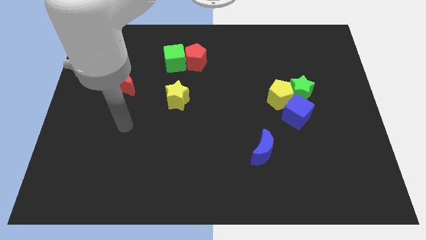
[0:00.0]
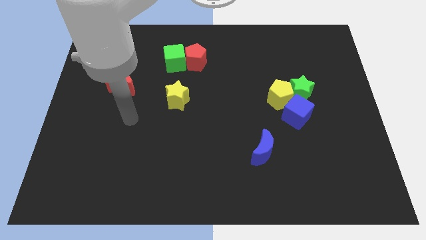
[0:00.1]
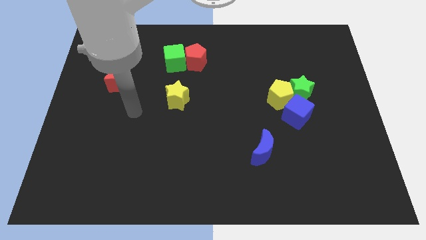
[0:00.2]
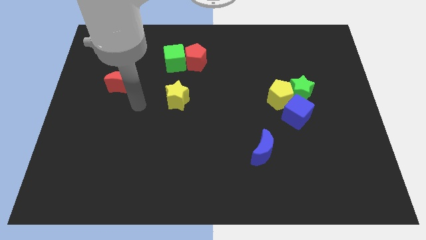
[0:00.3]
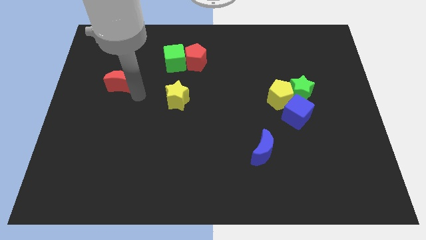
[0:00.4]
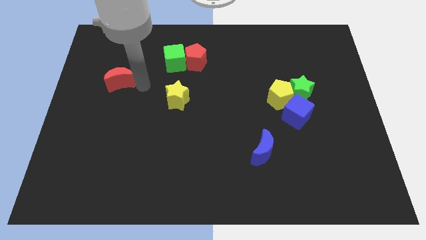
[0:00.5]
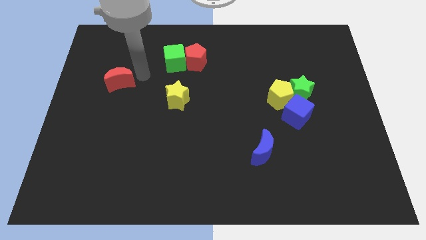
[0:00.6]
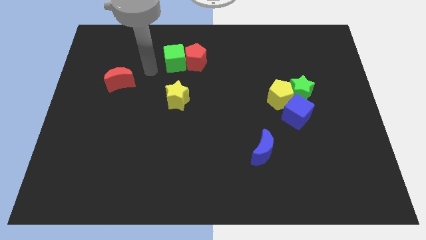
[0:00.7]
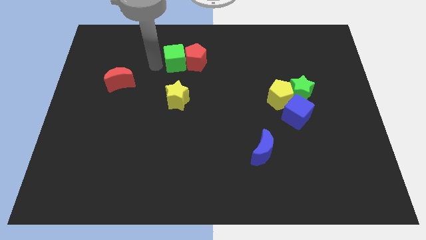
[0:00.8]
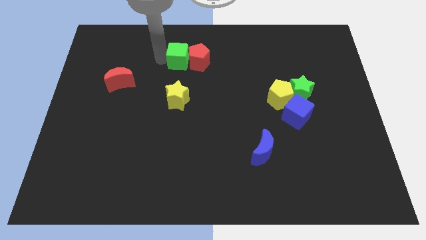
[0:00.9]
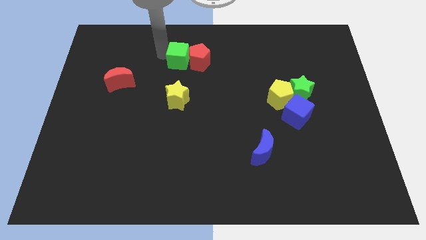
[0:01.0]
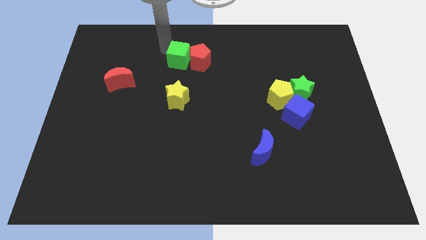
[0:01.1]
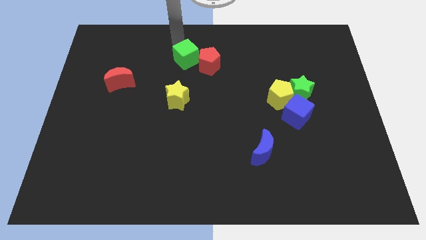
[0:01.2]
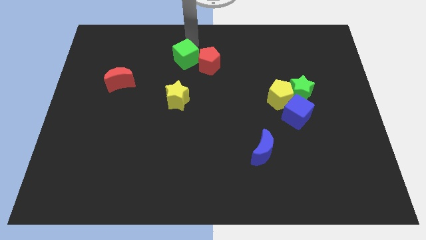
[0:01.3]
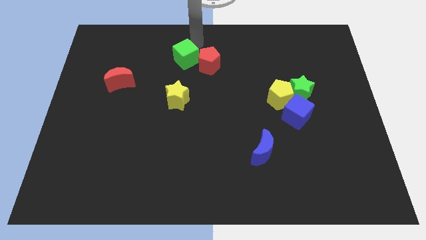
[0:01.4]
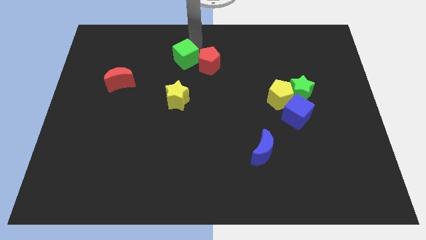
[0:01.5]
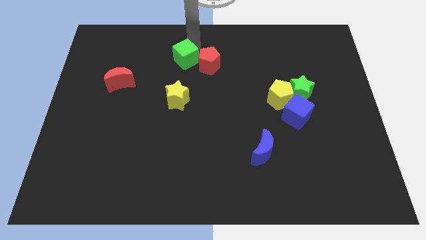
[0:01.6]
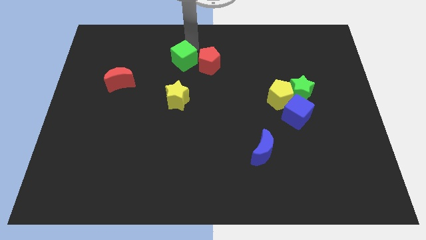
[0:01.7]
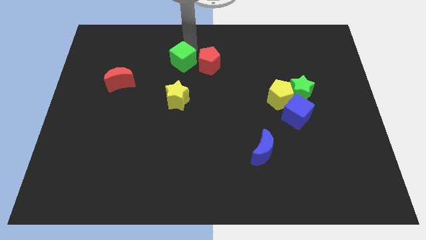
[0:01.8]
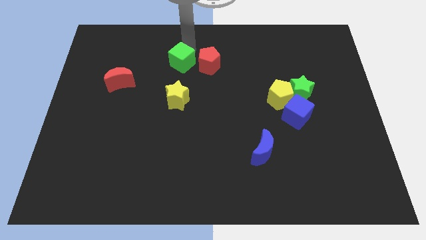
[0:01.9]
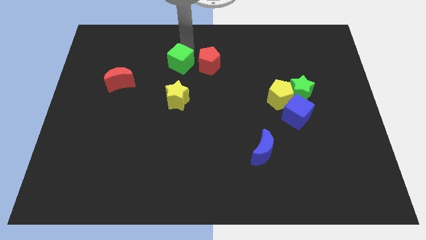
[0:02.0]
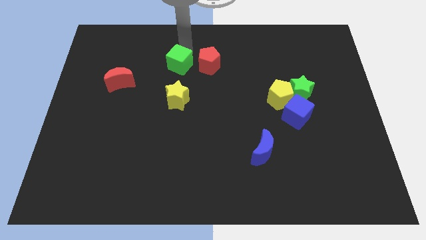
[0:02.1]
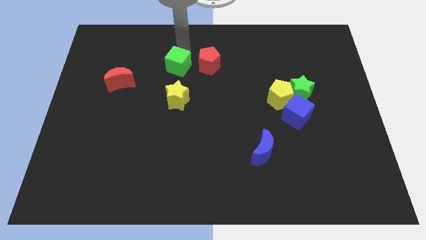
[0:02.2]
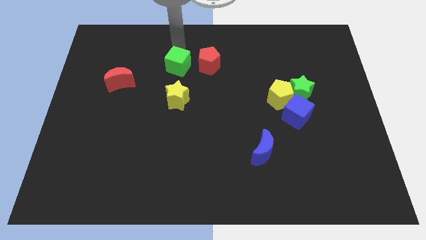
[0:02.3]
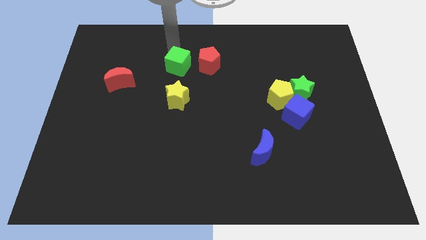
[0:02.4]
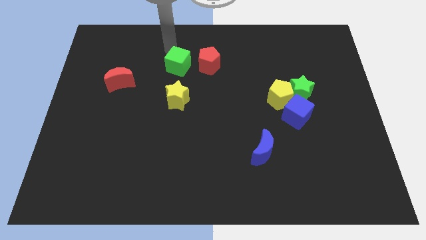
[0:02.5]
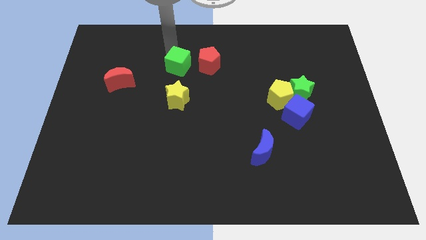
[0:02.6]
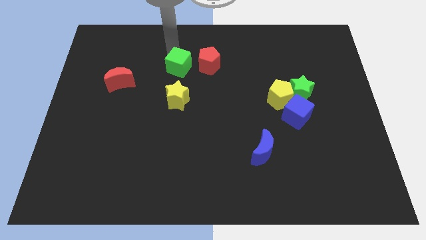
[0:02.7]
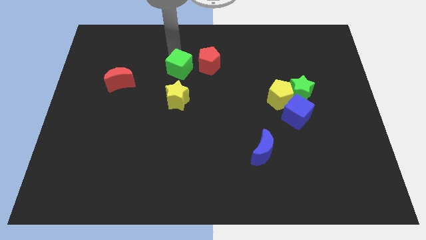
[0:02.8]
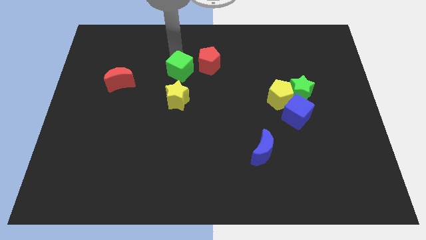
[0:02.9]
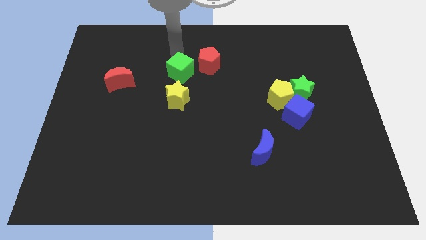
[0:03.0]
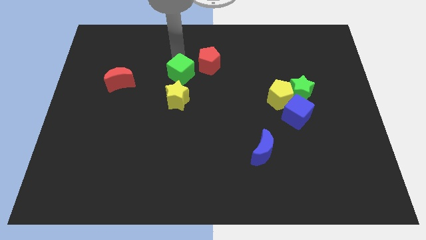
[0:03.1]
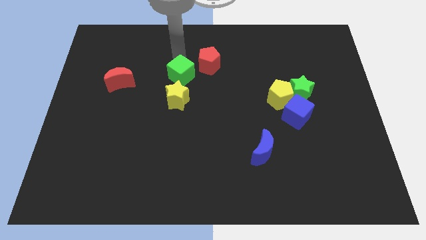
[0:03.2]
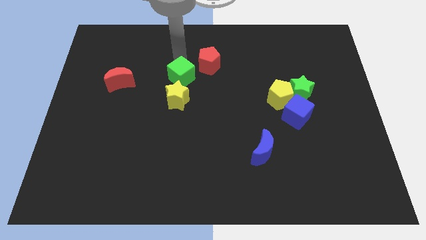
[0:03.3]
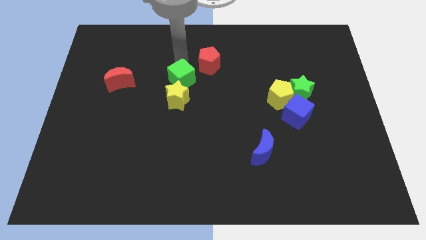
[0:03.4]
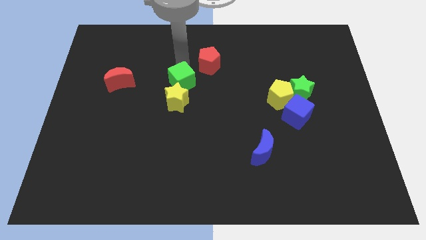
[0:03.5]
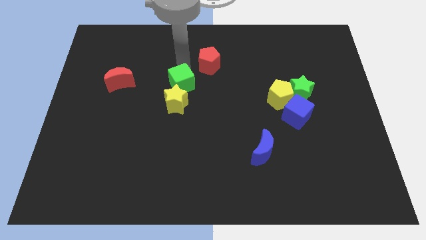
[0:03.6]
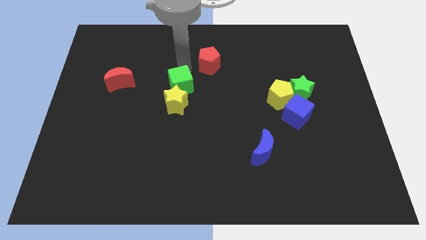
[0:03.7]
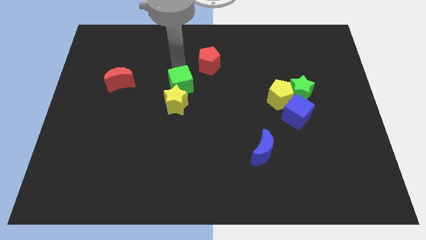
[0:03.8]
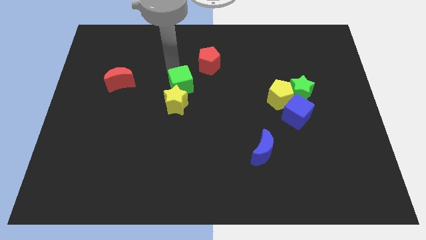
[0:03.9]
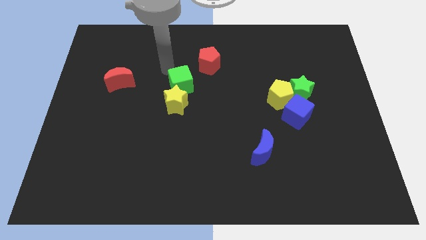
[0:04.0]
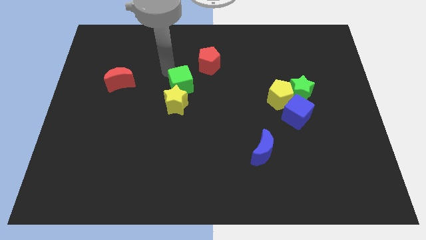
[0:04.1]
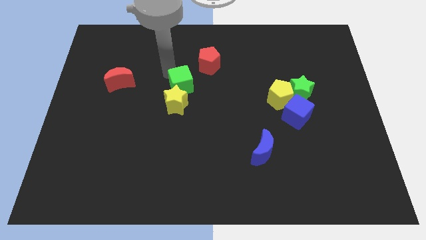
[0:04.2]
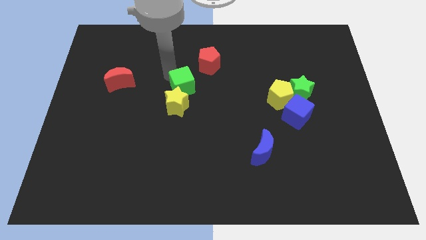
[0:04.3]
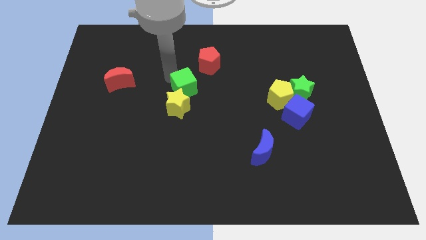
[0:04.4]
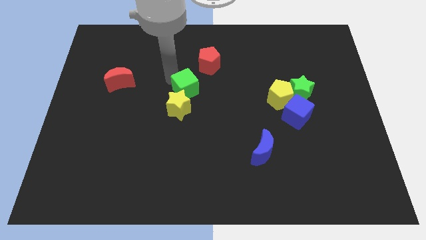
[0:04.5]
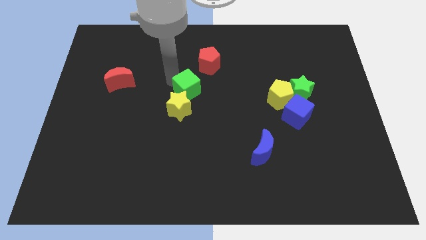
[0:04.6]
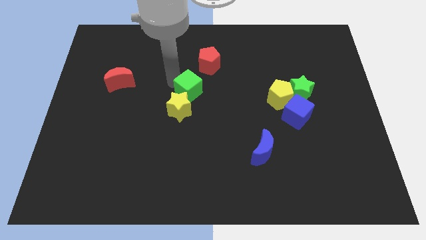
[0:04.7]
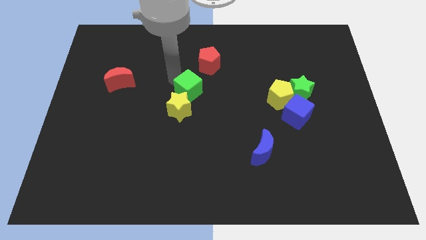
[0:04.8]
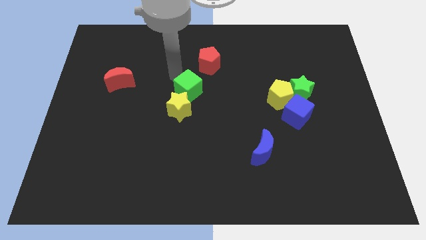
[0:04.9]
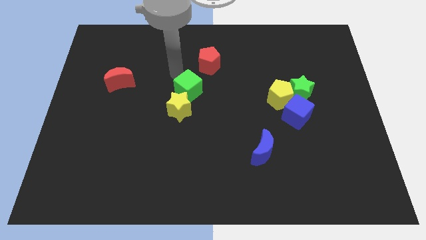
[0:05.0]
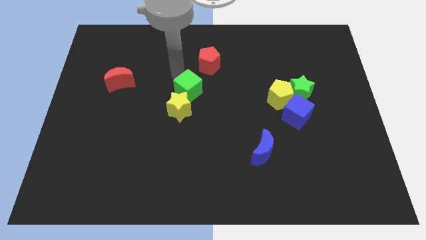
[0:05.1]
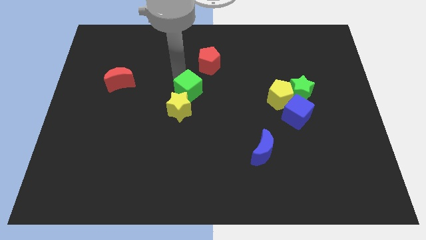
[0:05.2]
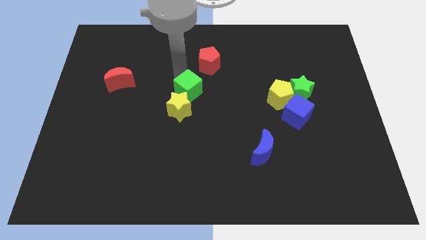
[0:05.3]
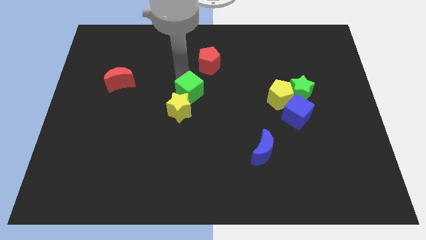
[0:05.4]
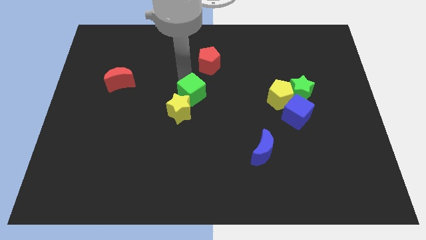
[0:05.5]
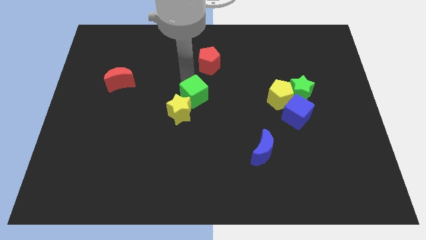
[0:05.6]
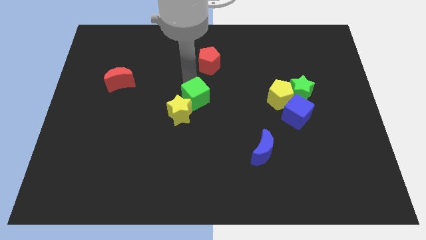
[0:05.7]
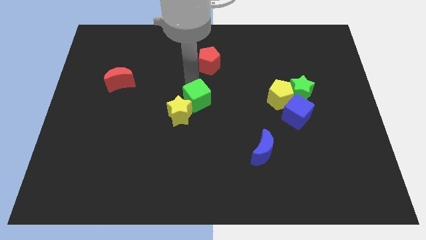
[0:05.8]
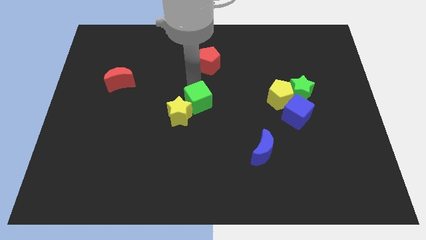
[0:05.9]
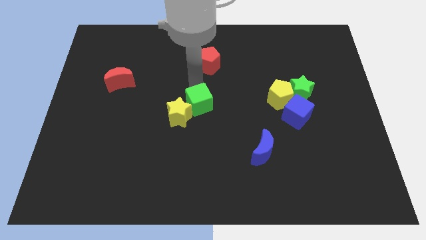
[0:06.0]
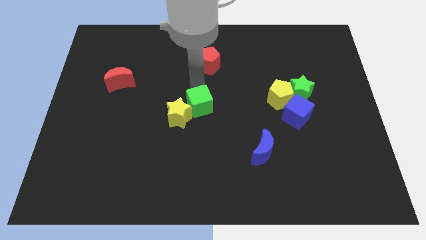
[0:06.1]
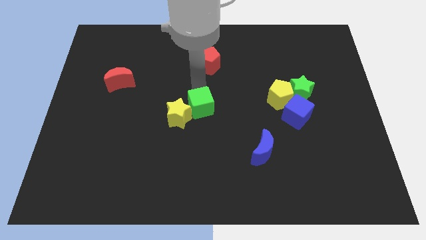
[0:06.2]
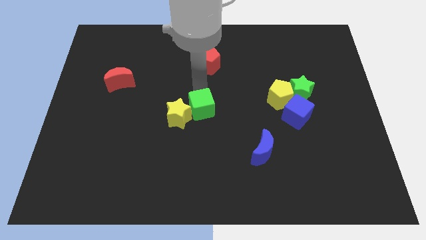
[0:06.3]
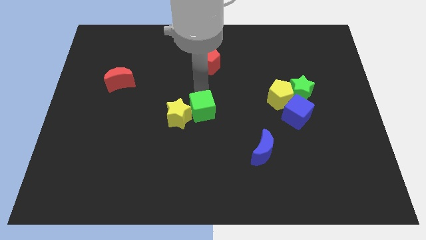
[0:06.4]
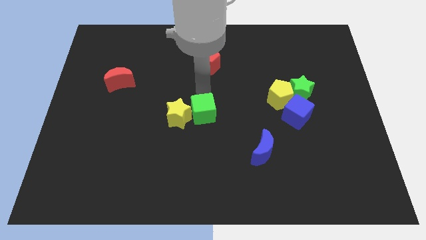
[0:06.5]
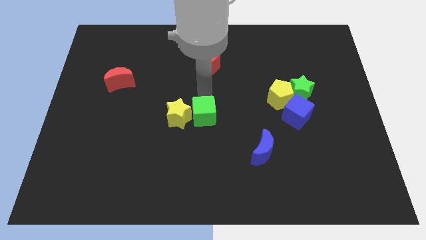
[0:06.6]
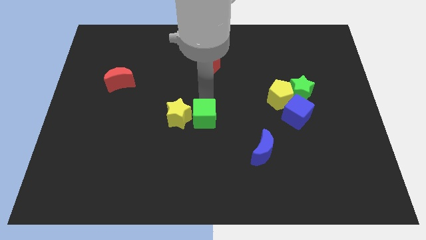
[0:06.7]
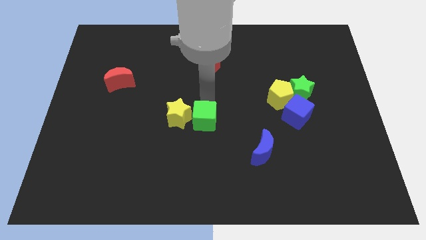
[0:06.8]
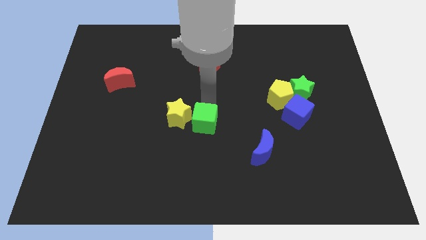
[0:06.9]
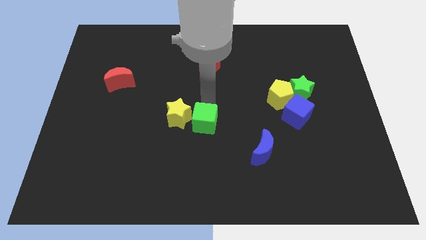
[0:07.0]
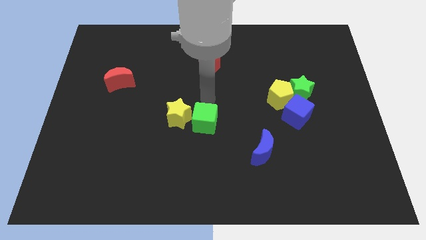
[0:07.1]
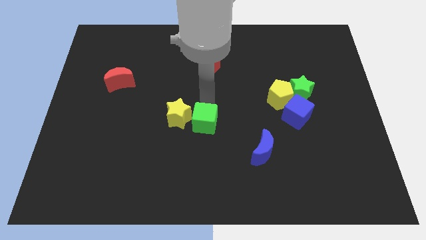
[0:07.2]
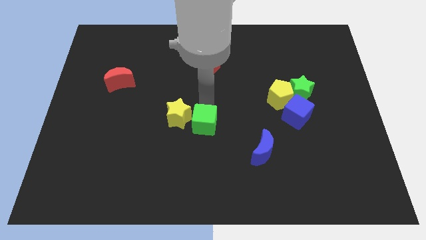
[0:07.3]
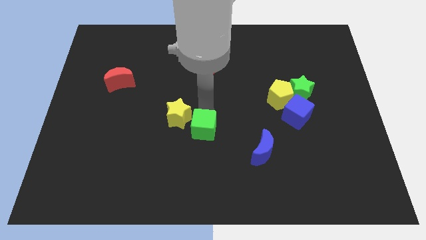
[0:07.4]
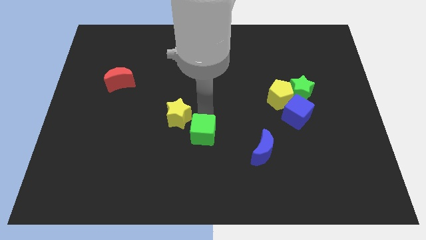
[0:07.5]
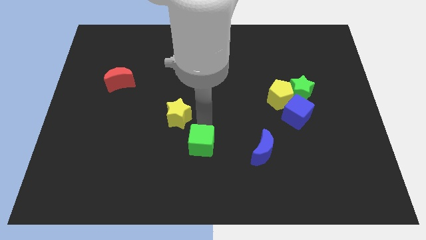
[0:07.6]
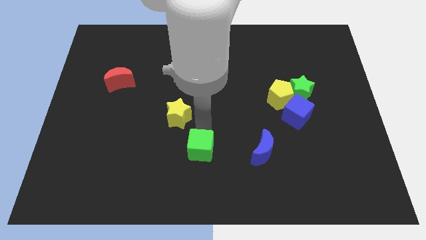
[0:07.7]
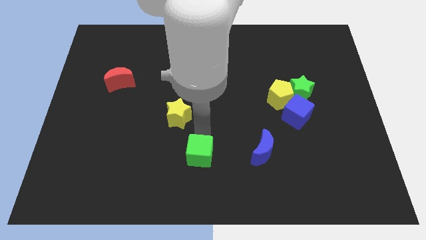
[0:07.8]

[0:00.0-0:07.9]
move the green cube to the bottom side
